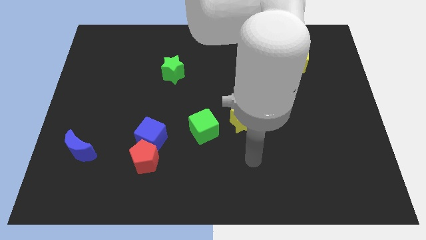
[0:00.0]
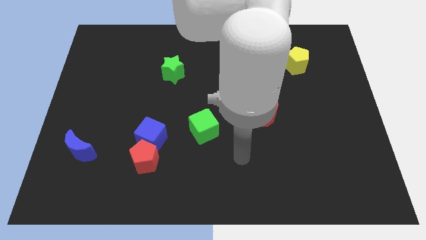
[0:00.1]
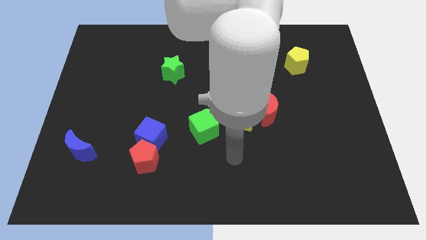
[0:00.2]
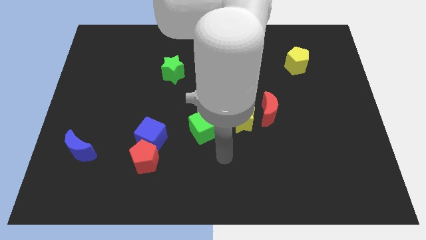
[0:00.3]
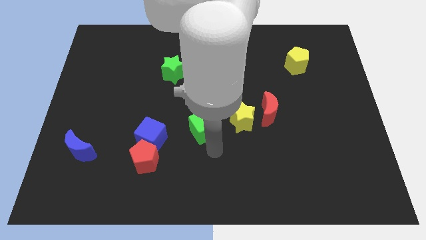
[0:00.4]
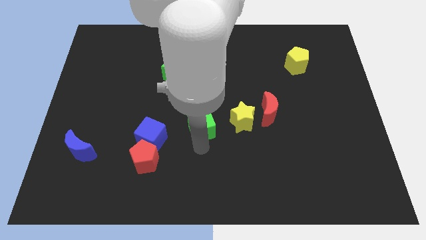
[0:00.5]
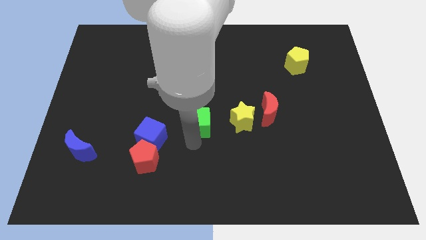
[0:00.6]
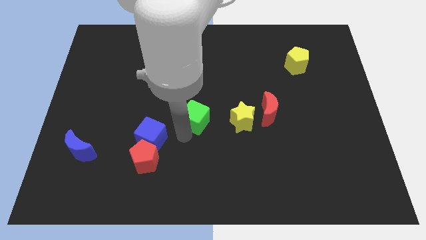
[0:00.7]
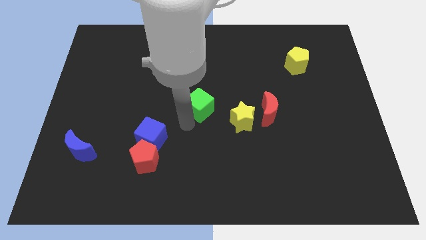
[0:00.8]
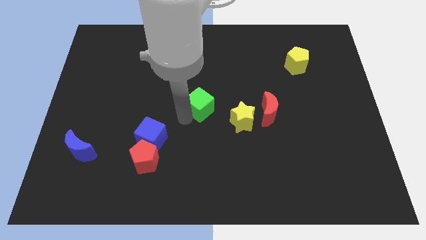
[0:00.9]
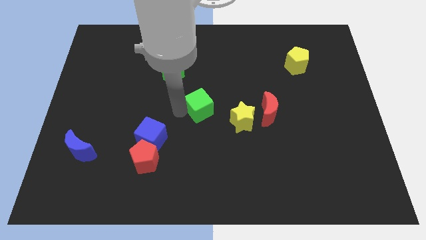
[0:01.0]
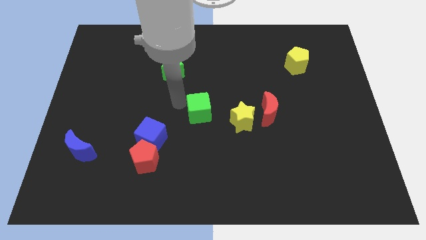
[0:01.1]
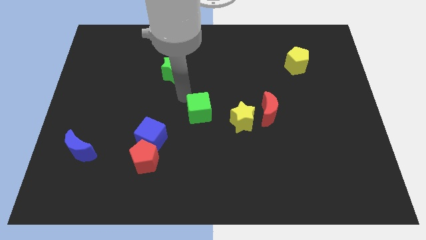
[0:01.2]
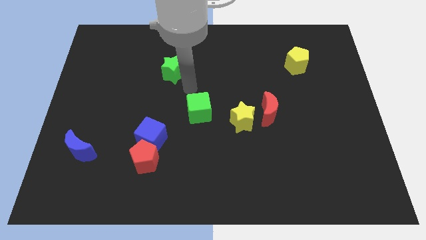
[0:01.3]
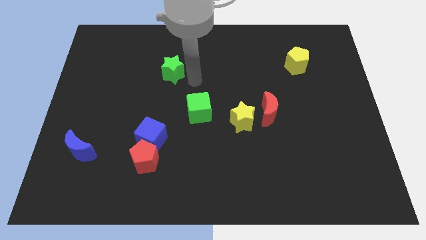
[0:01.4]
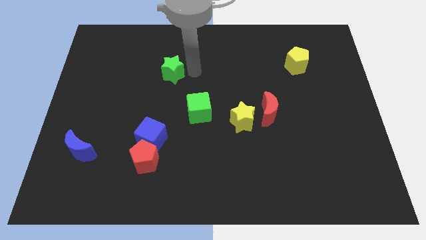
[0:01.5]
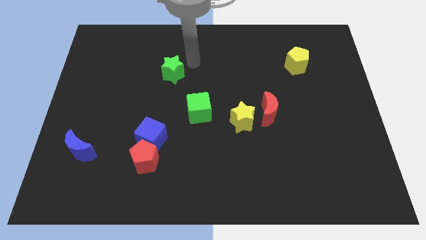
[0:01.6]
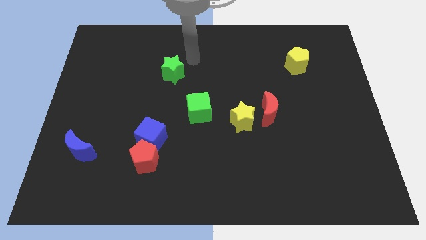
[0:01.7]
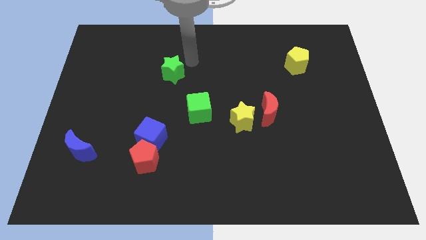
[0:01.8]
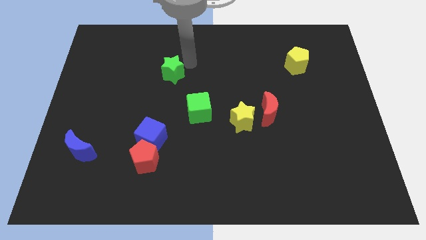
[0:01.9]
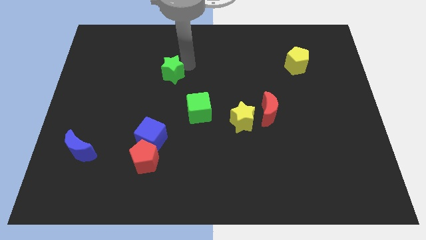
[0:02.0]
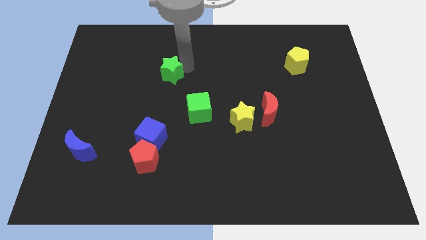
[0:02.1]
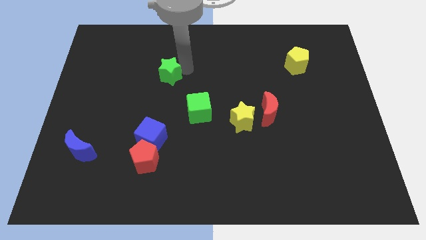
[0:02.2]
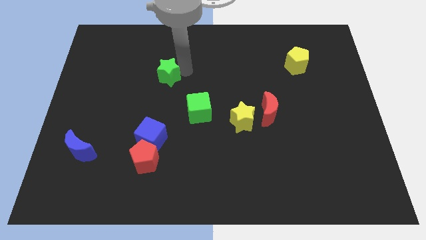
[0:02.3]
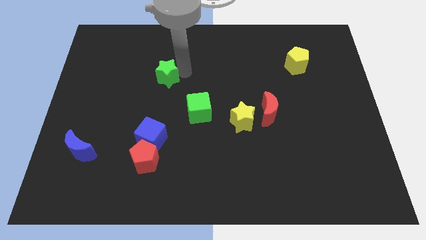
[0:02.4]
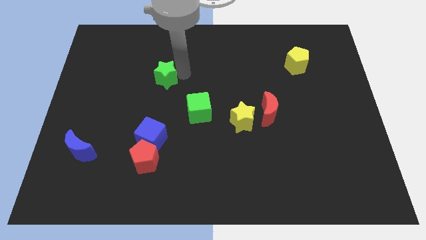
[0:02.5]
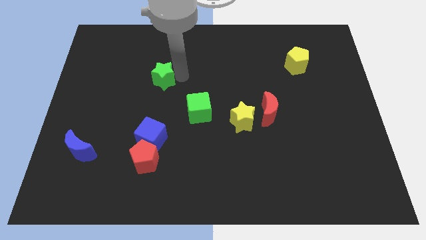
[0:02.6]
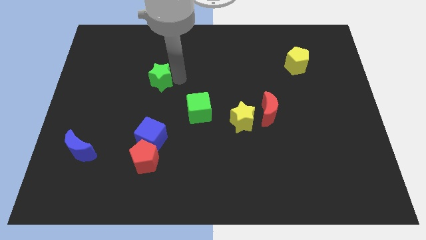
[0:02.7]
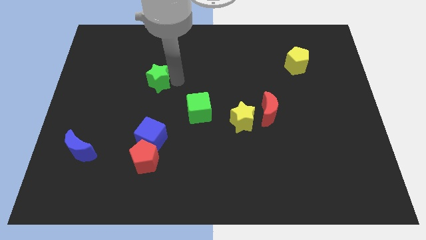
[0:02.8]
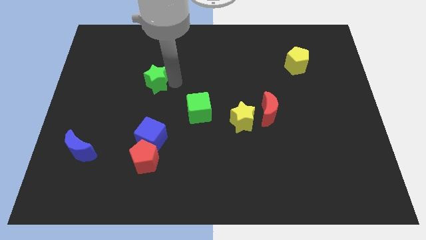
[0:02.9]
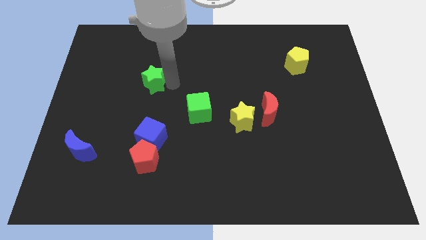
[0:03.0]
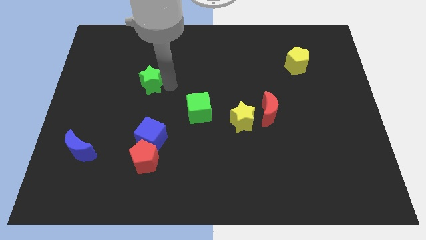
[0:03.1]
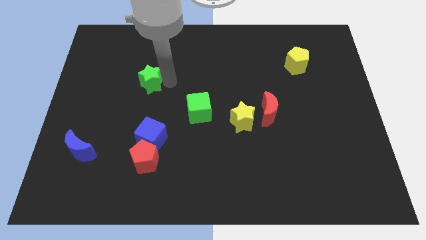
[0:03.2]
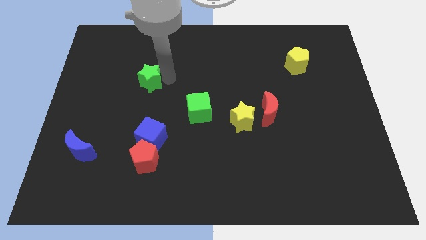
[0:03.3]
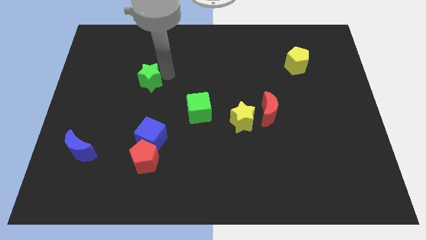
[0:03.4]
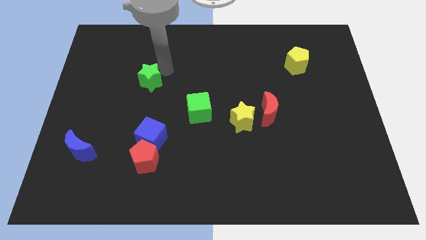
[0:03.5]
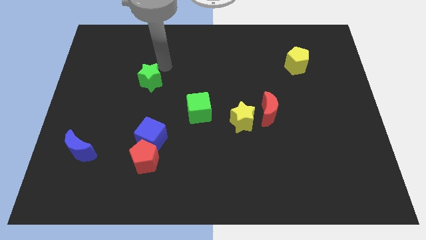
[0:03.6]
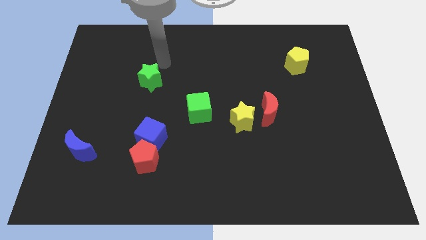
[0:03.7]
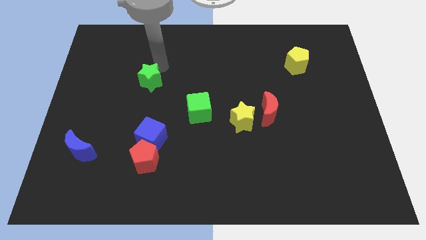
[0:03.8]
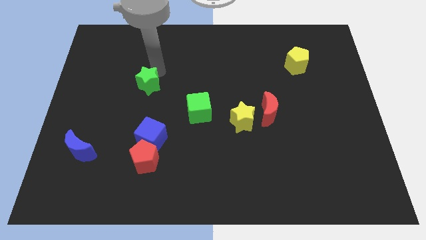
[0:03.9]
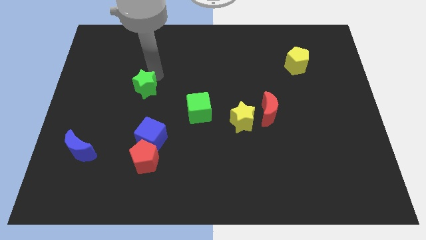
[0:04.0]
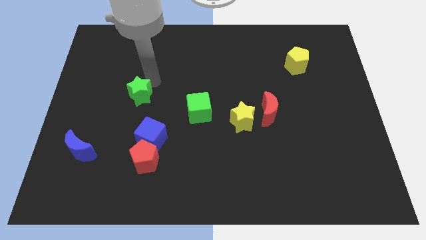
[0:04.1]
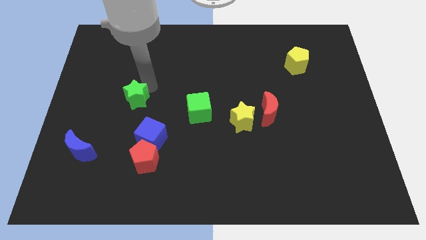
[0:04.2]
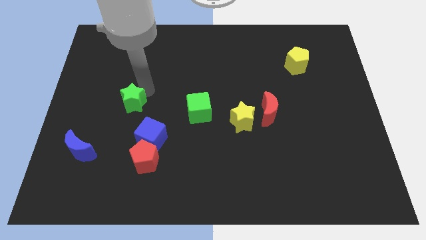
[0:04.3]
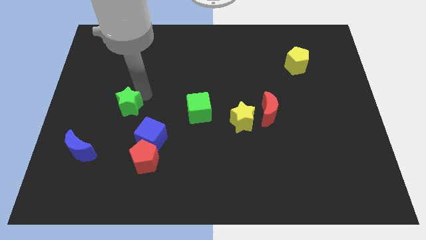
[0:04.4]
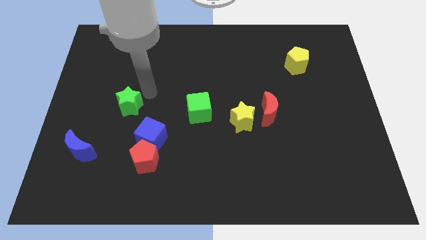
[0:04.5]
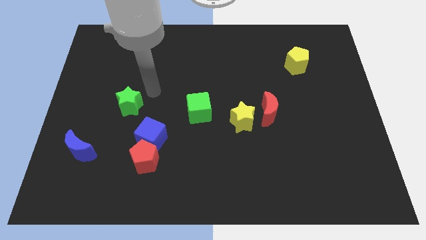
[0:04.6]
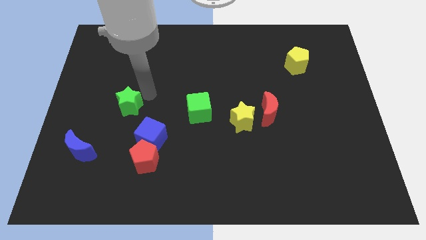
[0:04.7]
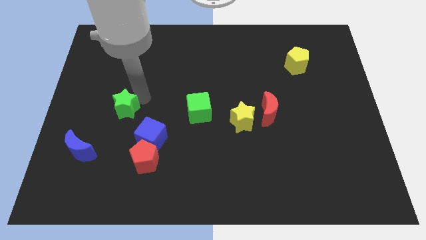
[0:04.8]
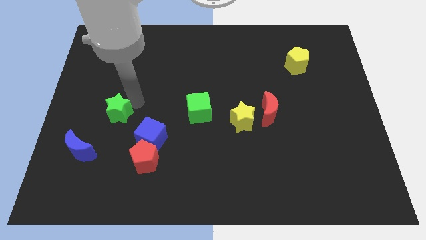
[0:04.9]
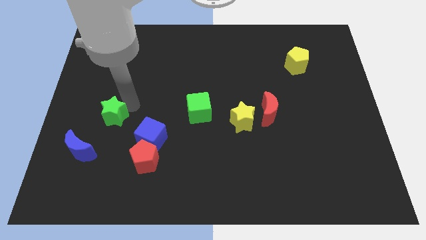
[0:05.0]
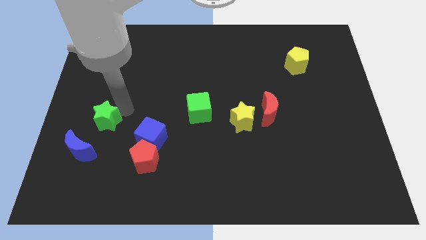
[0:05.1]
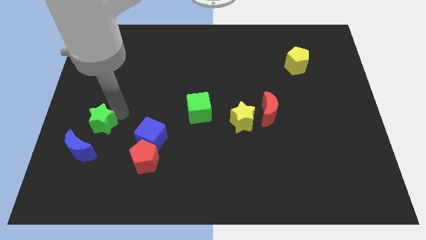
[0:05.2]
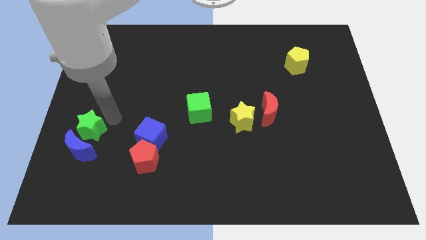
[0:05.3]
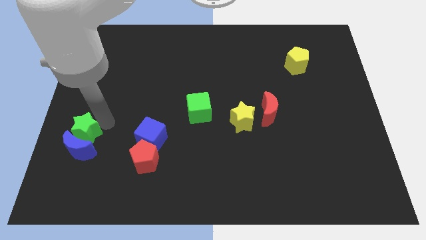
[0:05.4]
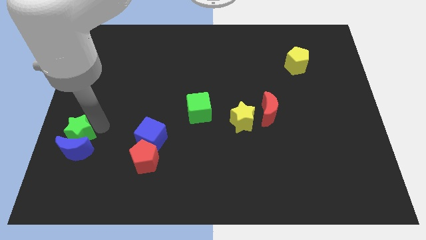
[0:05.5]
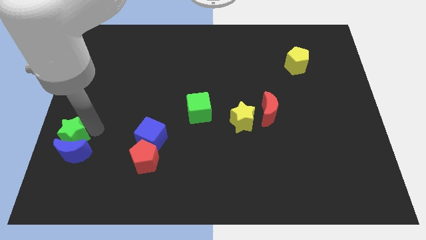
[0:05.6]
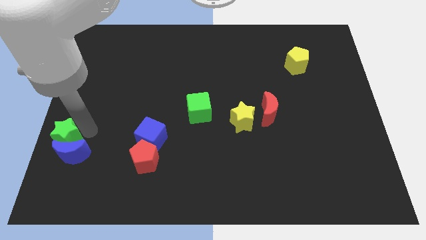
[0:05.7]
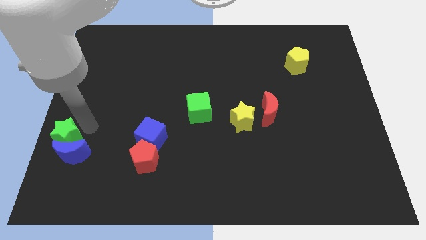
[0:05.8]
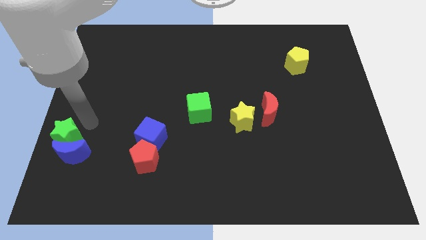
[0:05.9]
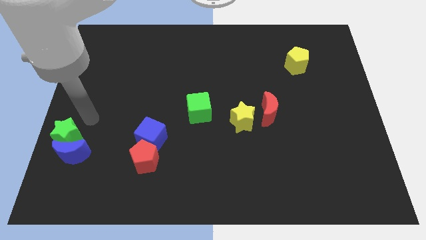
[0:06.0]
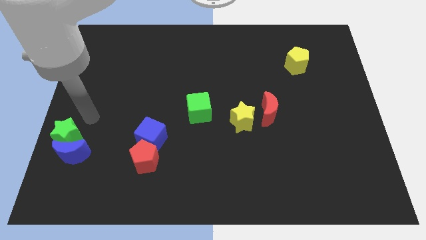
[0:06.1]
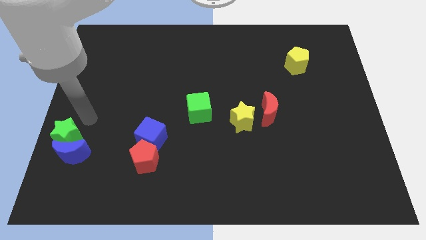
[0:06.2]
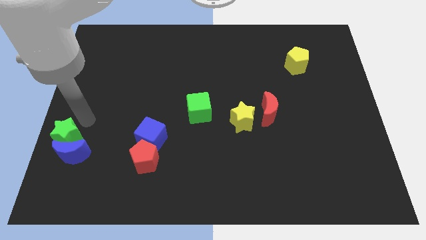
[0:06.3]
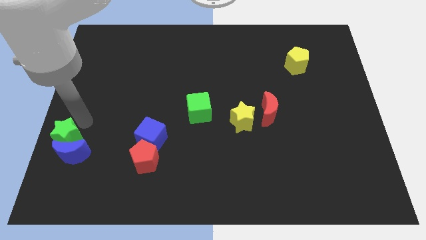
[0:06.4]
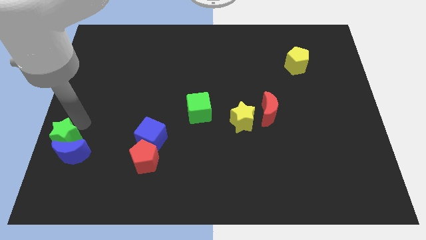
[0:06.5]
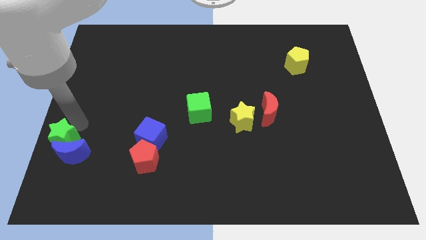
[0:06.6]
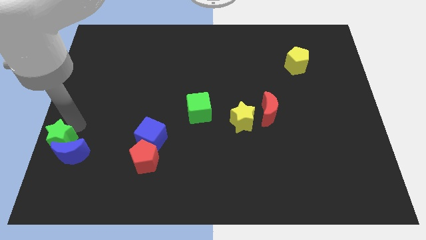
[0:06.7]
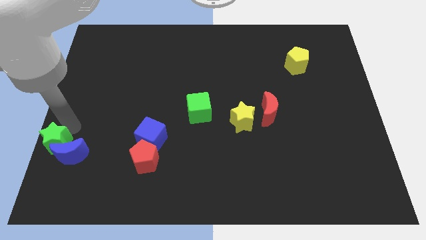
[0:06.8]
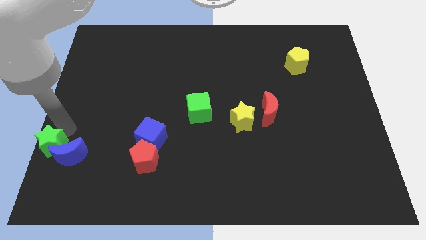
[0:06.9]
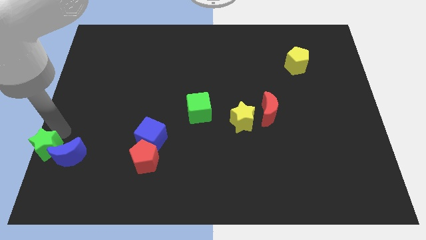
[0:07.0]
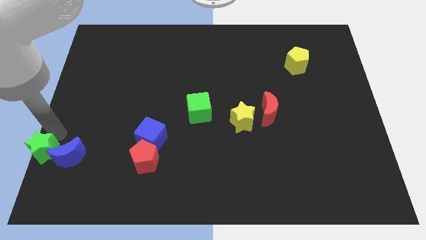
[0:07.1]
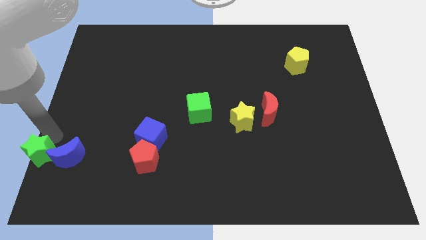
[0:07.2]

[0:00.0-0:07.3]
move the green star to the bottom left of the board
